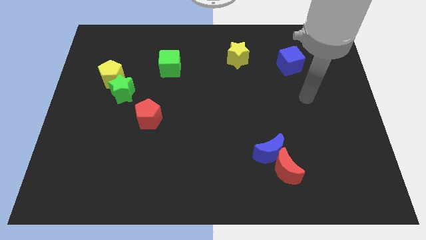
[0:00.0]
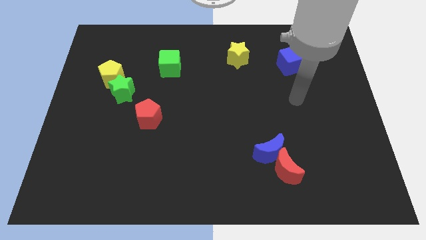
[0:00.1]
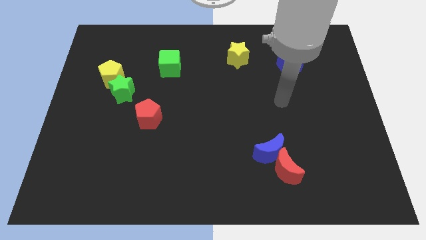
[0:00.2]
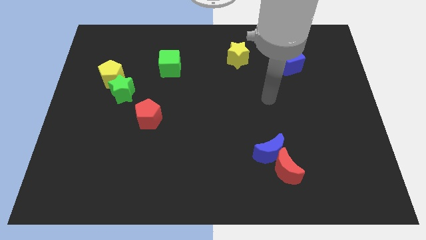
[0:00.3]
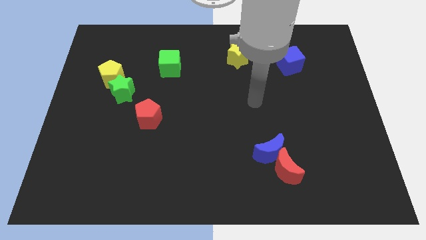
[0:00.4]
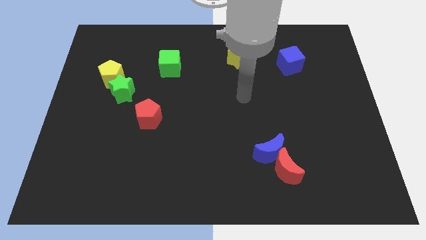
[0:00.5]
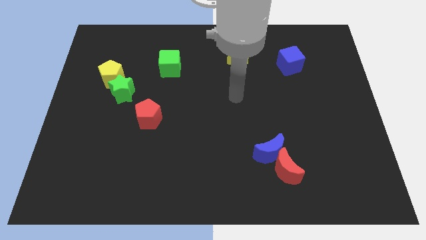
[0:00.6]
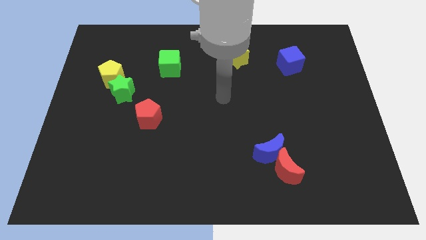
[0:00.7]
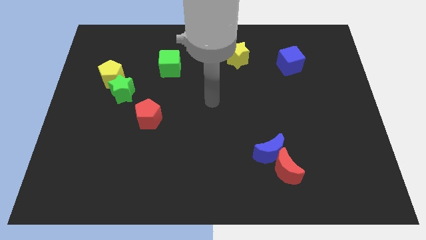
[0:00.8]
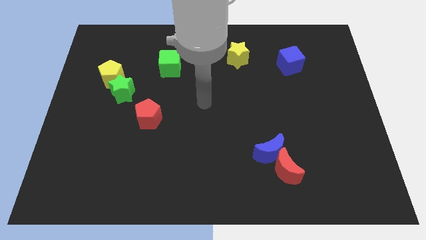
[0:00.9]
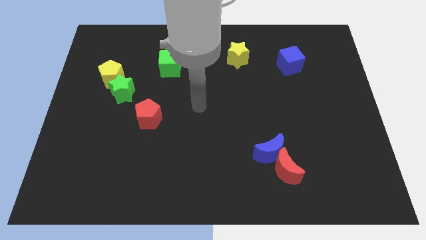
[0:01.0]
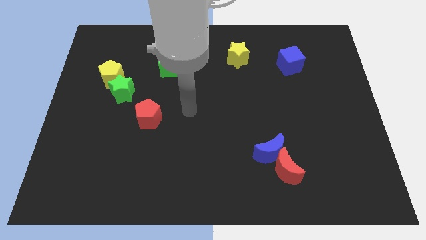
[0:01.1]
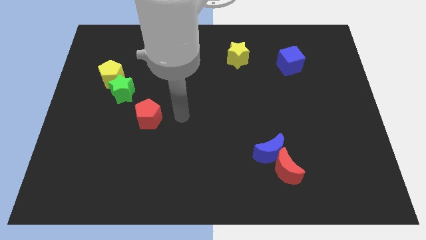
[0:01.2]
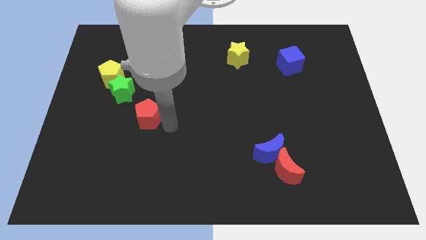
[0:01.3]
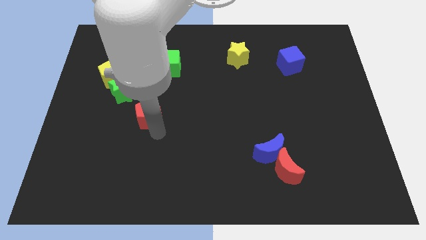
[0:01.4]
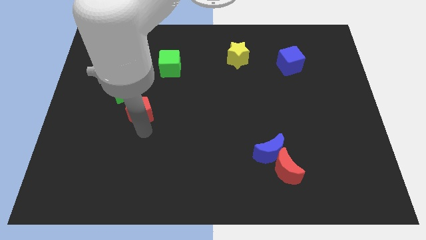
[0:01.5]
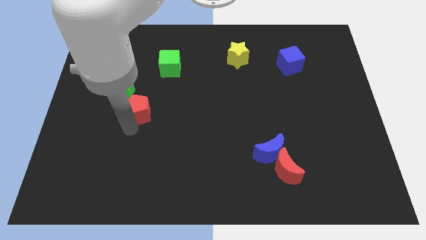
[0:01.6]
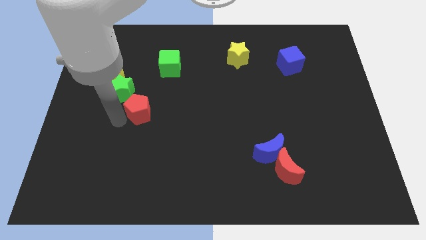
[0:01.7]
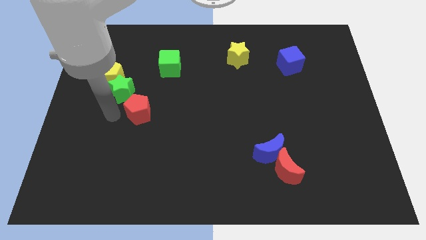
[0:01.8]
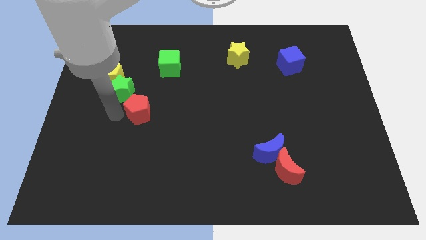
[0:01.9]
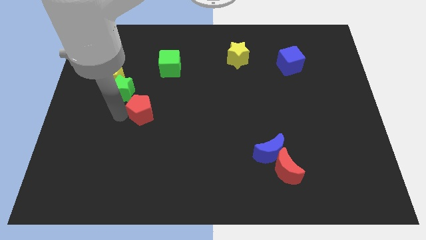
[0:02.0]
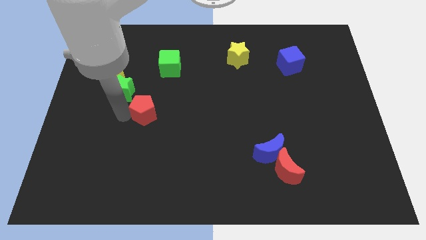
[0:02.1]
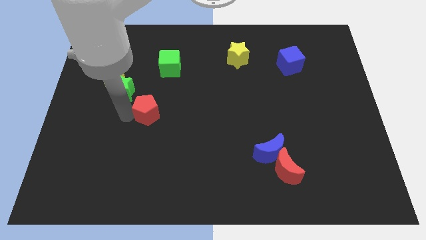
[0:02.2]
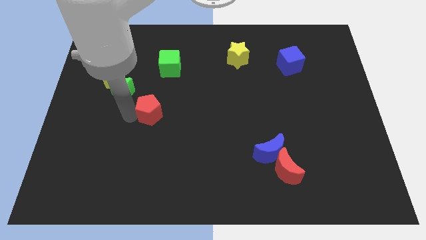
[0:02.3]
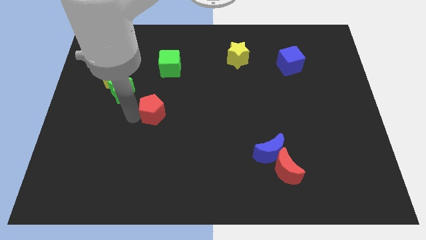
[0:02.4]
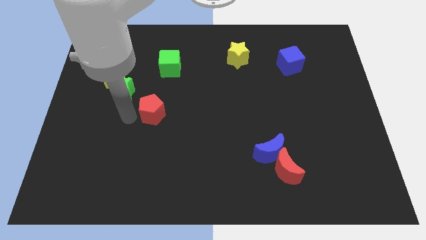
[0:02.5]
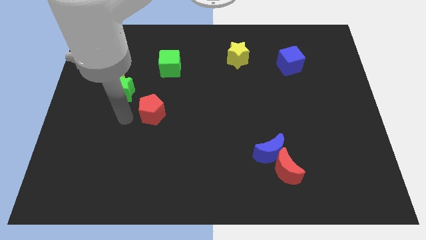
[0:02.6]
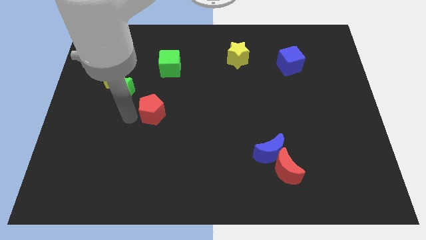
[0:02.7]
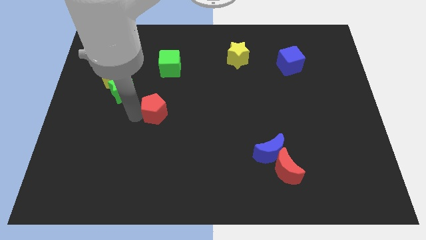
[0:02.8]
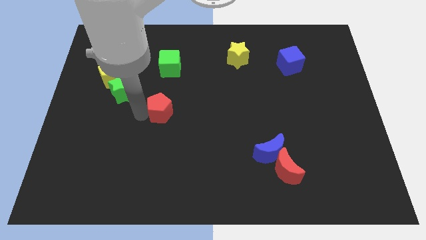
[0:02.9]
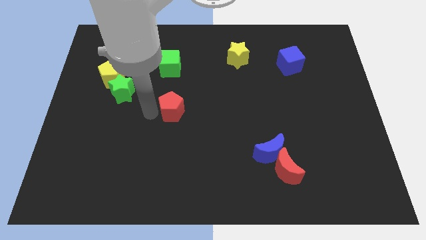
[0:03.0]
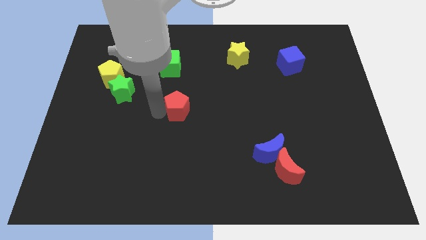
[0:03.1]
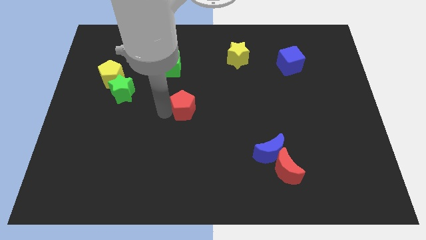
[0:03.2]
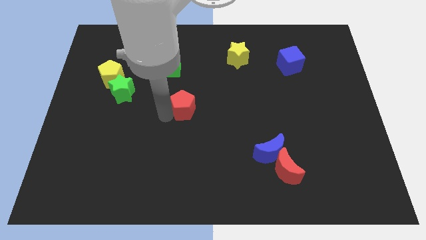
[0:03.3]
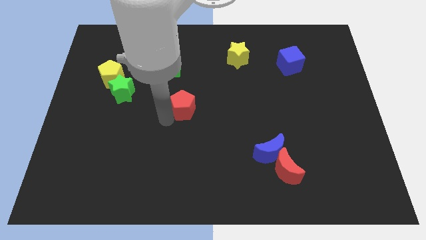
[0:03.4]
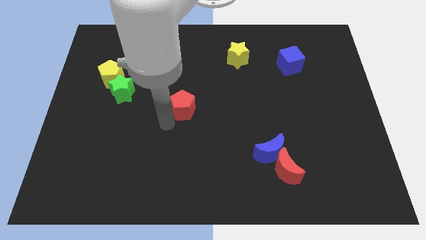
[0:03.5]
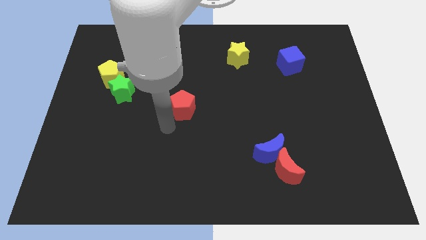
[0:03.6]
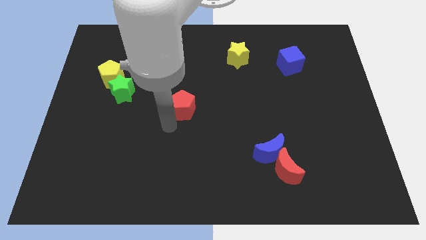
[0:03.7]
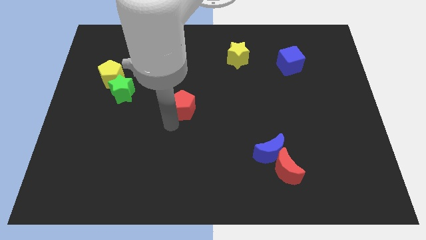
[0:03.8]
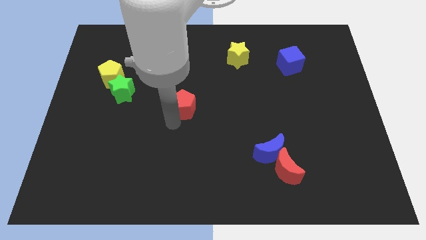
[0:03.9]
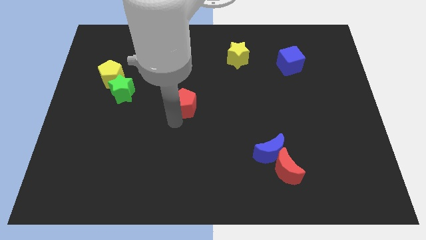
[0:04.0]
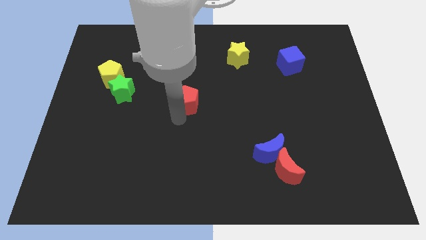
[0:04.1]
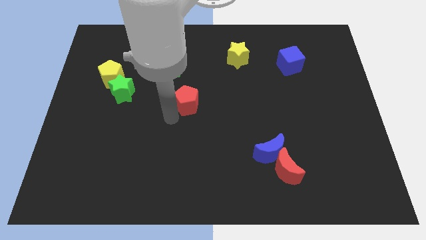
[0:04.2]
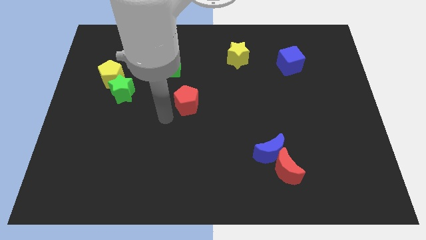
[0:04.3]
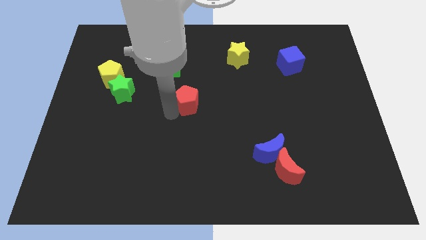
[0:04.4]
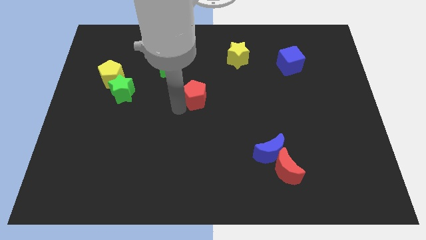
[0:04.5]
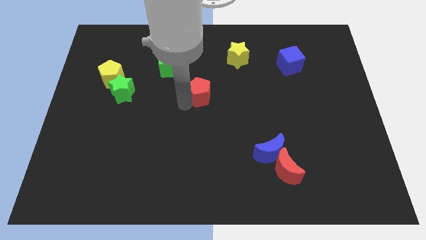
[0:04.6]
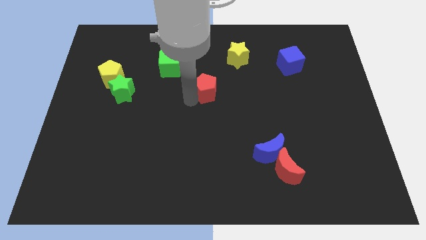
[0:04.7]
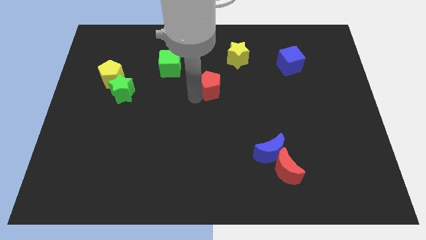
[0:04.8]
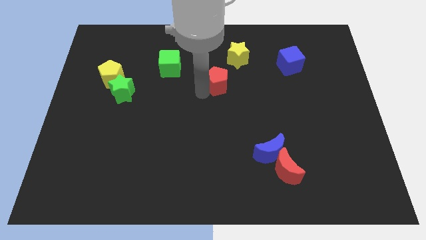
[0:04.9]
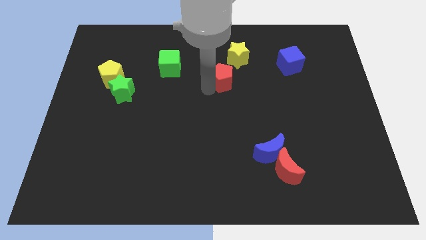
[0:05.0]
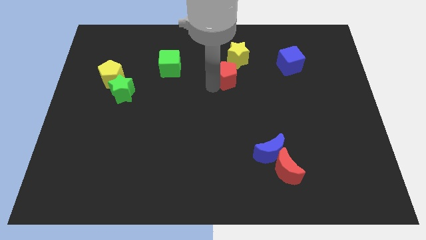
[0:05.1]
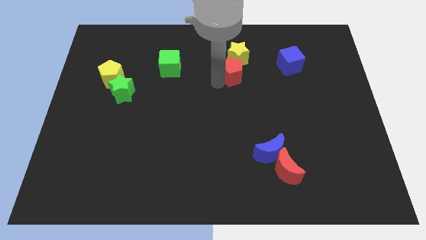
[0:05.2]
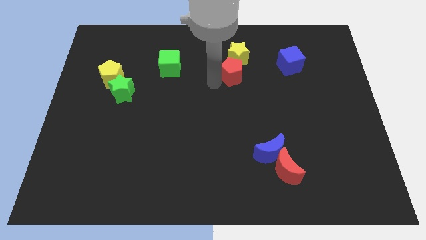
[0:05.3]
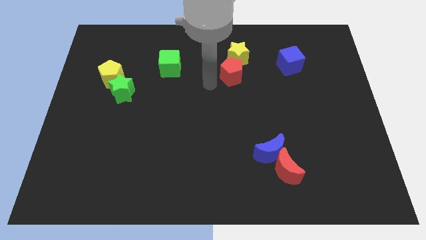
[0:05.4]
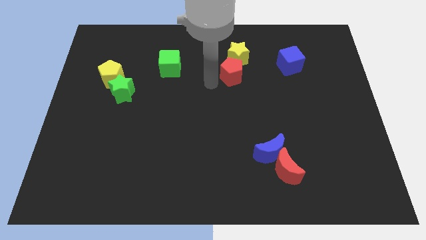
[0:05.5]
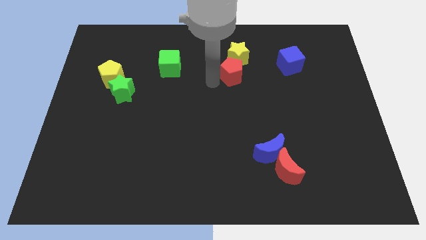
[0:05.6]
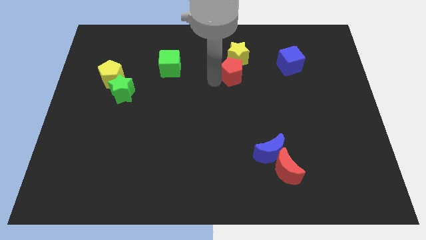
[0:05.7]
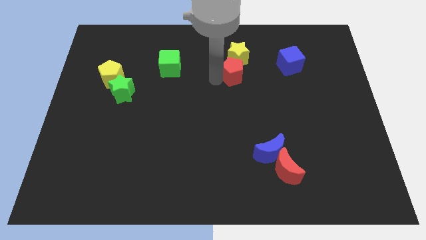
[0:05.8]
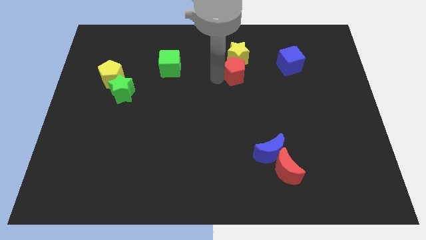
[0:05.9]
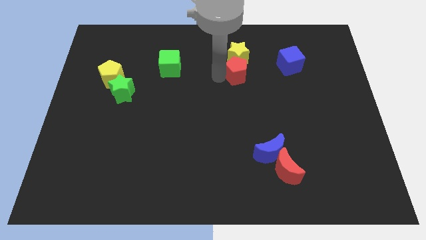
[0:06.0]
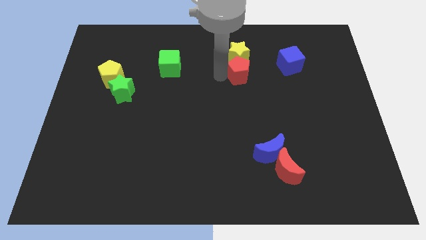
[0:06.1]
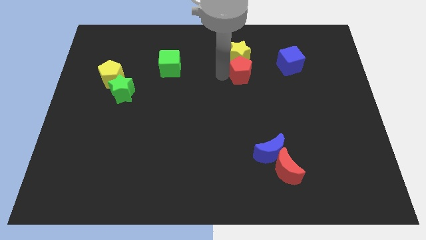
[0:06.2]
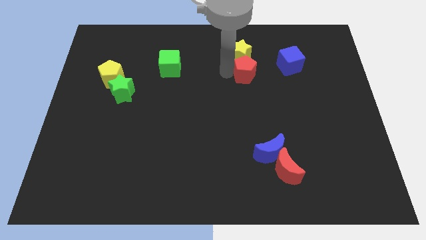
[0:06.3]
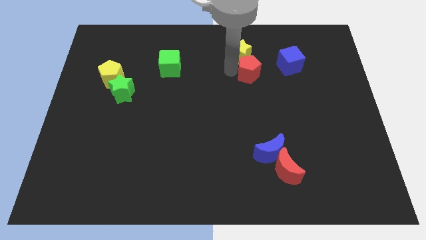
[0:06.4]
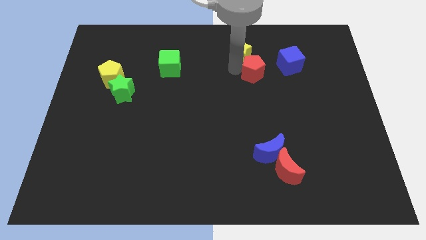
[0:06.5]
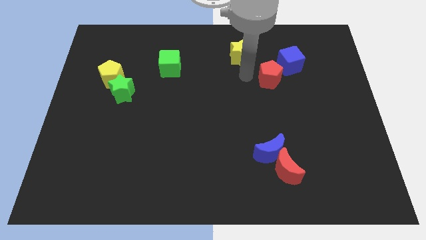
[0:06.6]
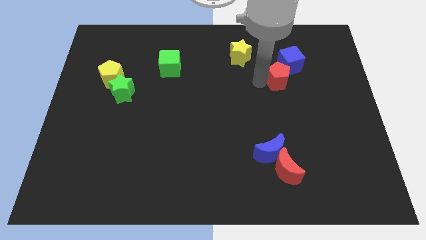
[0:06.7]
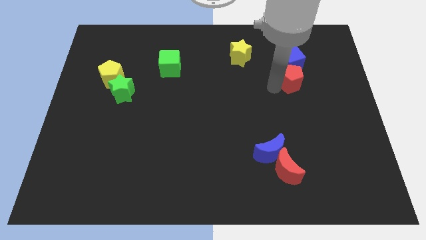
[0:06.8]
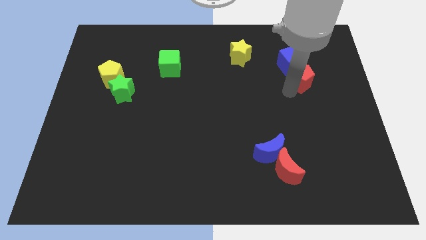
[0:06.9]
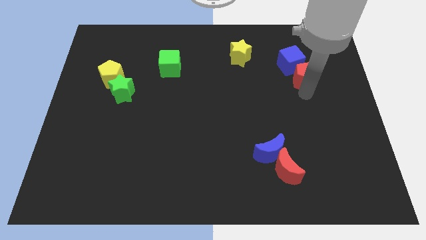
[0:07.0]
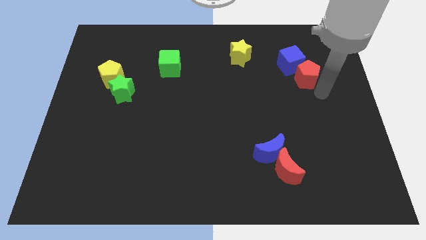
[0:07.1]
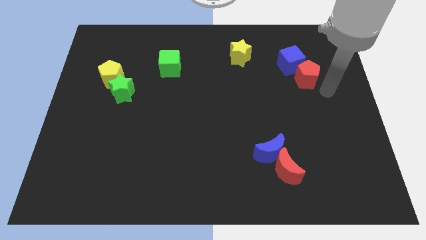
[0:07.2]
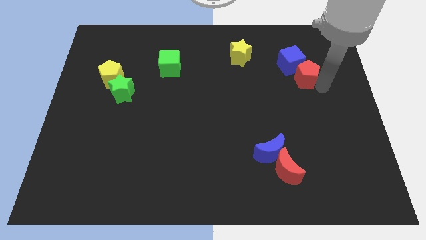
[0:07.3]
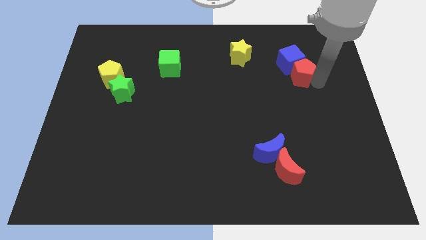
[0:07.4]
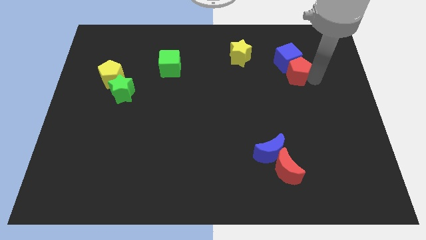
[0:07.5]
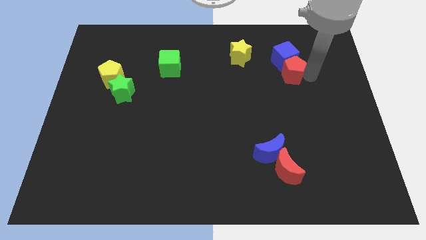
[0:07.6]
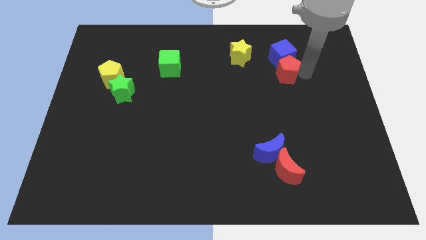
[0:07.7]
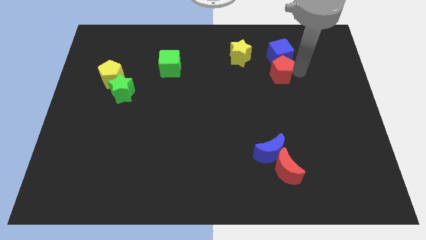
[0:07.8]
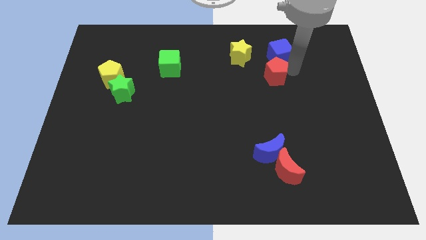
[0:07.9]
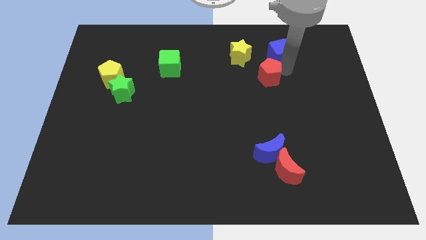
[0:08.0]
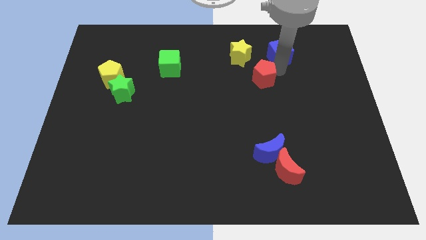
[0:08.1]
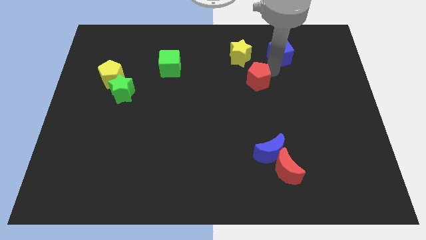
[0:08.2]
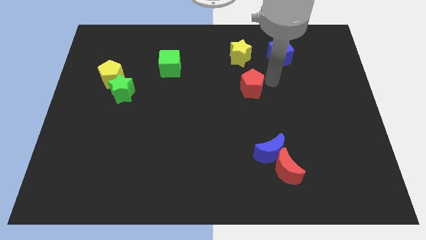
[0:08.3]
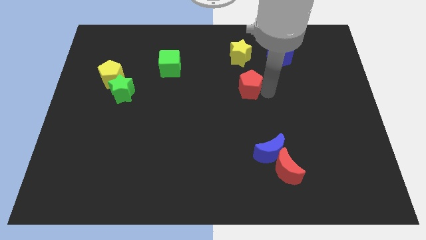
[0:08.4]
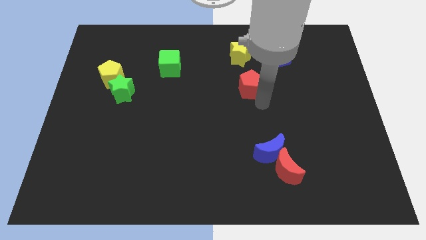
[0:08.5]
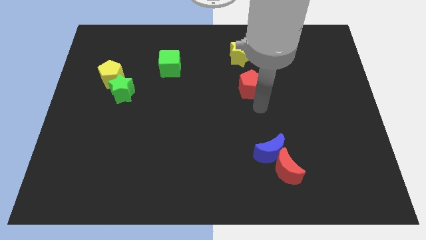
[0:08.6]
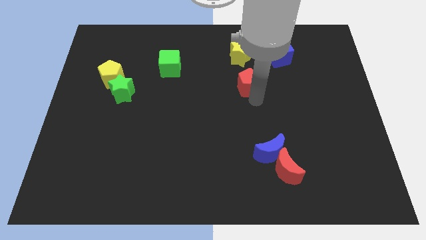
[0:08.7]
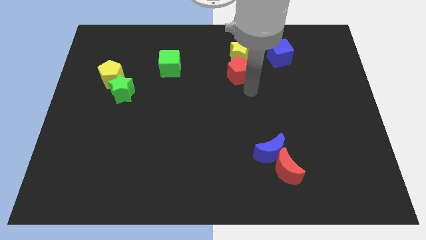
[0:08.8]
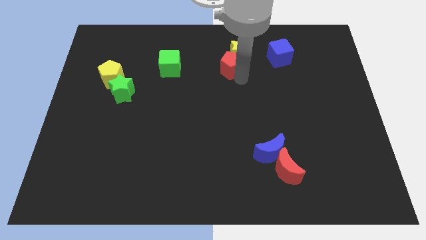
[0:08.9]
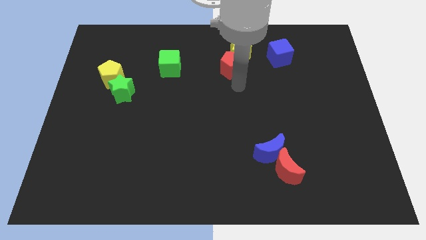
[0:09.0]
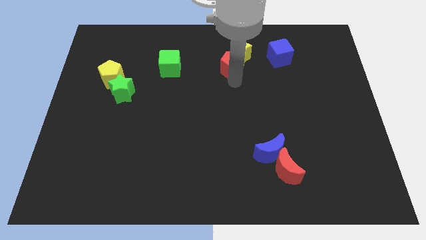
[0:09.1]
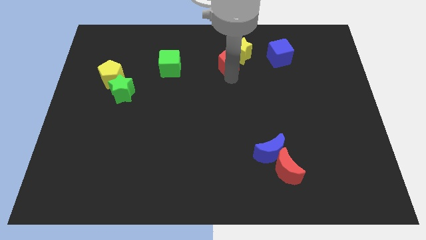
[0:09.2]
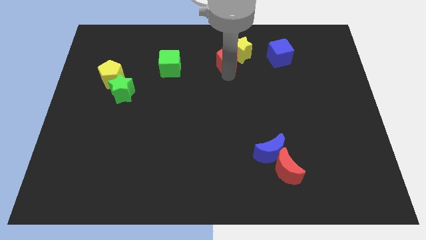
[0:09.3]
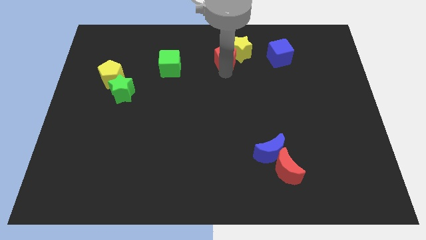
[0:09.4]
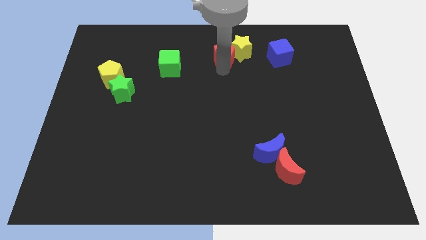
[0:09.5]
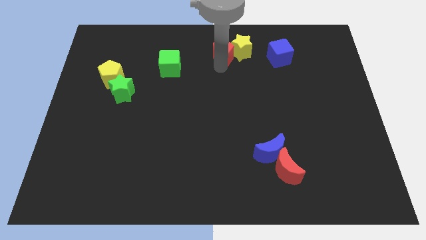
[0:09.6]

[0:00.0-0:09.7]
push the red pentagon to the towards your base
